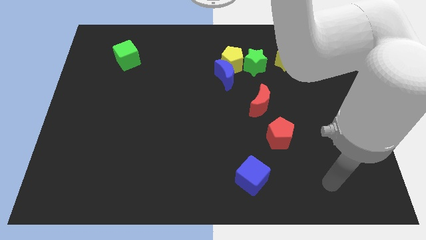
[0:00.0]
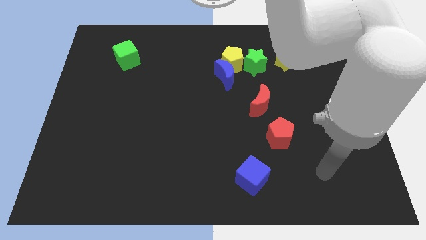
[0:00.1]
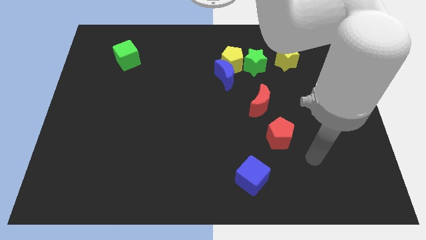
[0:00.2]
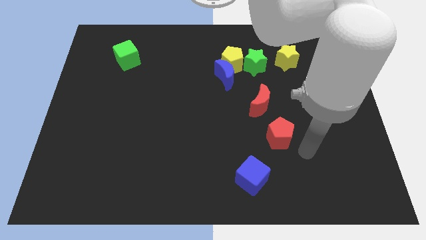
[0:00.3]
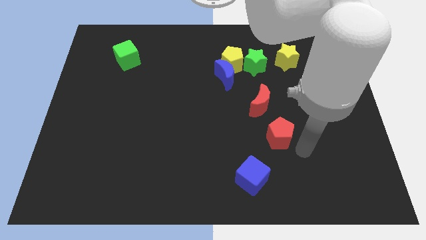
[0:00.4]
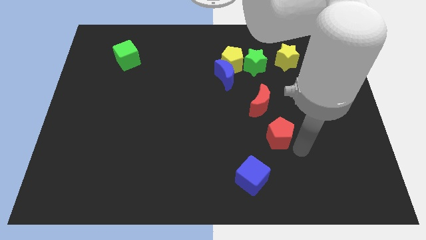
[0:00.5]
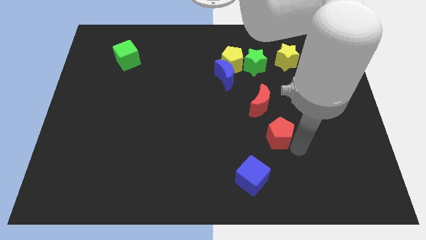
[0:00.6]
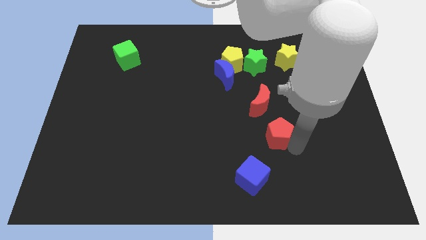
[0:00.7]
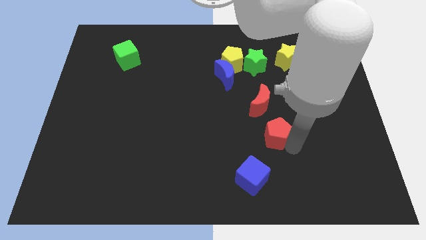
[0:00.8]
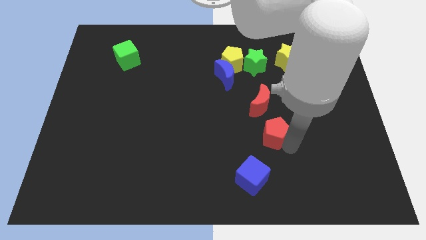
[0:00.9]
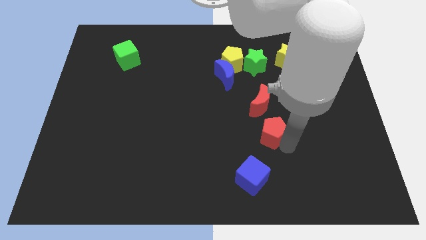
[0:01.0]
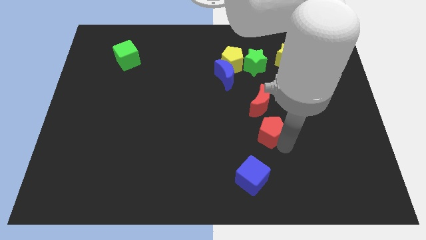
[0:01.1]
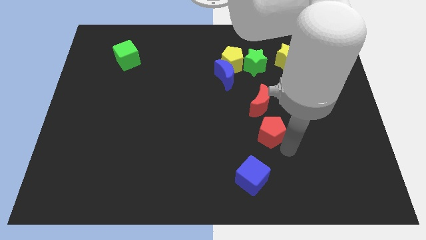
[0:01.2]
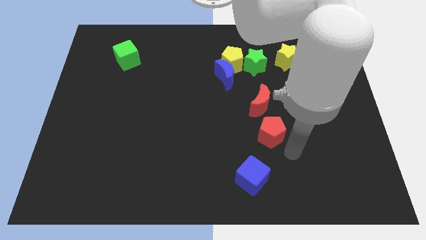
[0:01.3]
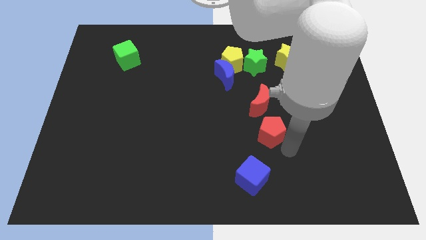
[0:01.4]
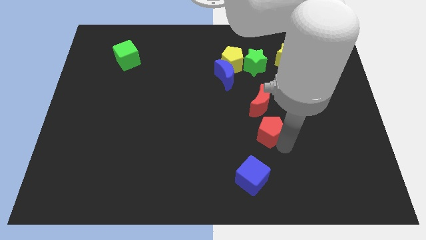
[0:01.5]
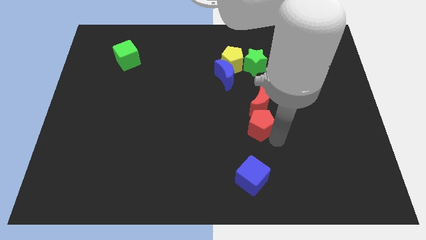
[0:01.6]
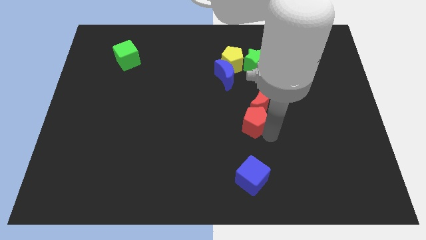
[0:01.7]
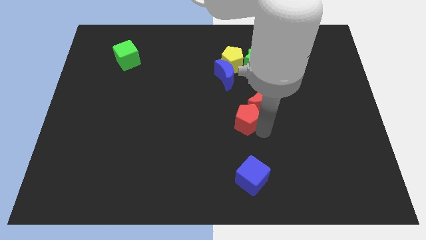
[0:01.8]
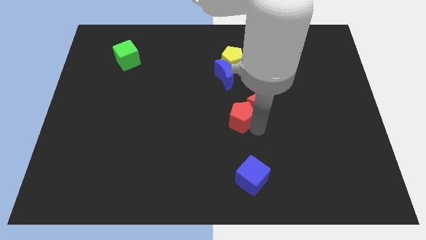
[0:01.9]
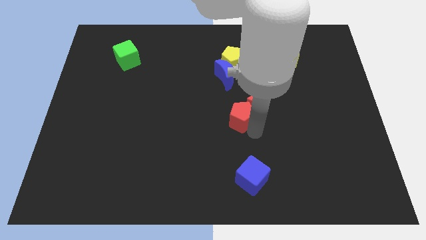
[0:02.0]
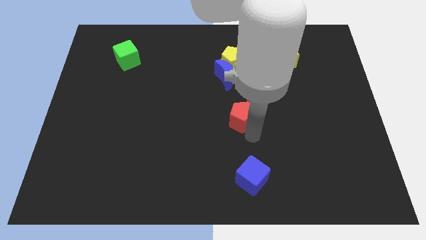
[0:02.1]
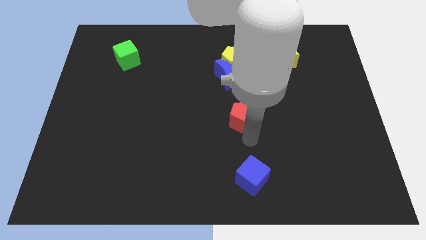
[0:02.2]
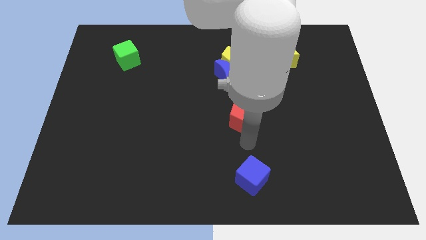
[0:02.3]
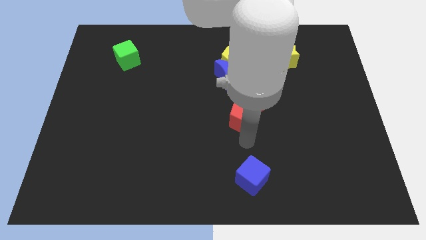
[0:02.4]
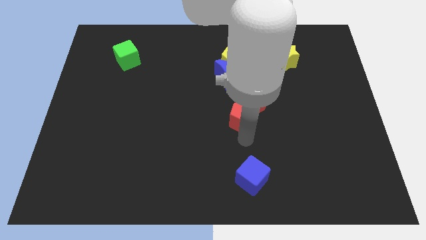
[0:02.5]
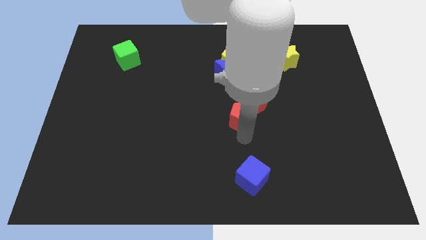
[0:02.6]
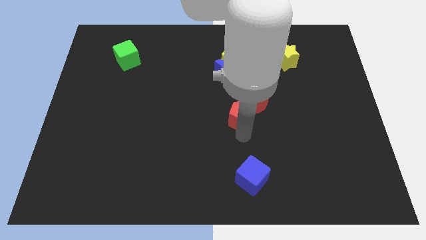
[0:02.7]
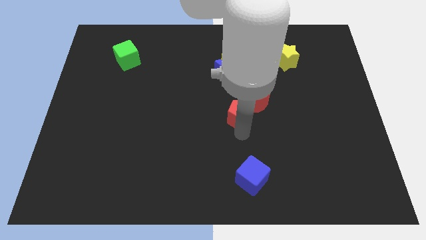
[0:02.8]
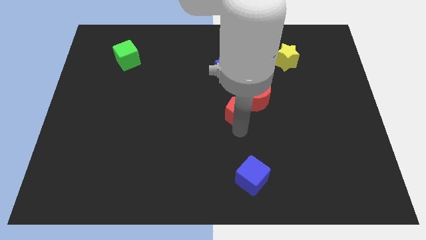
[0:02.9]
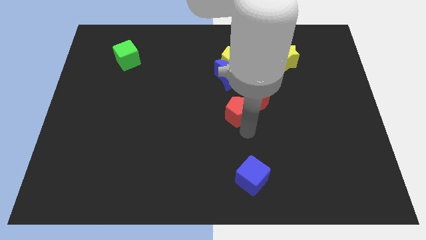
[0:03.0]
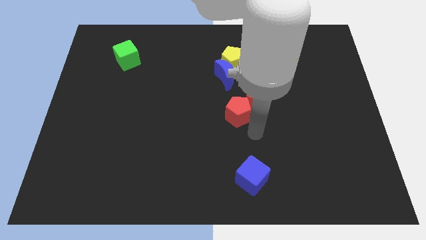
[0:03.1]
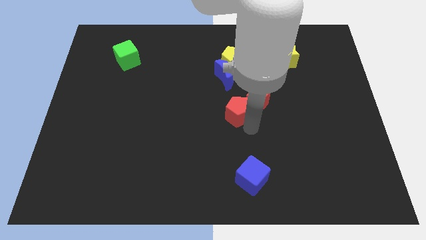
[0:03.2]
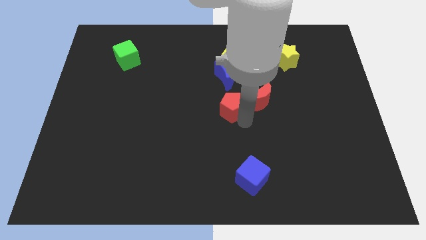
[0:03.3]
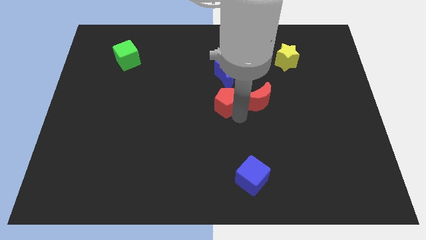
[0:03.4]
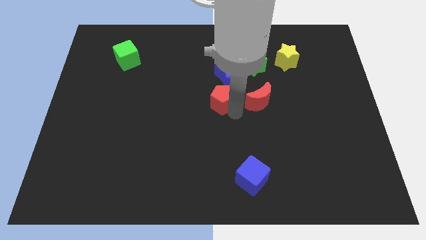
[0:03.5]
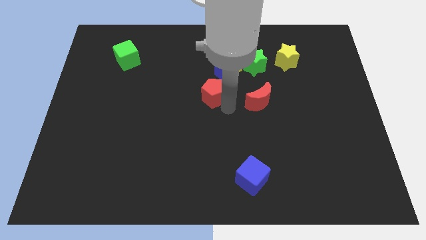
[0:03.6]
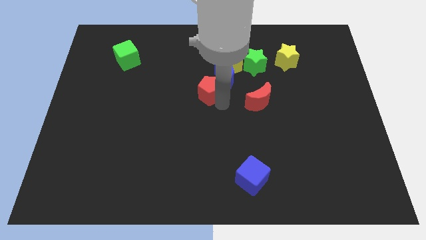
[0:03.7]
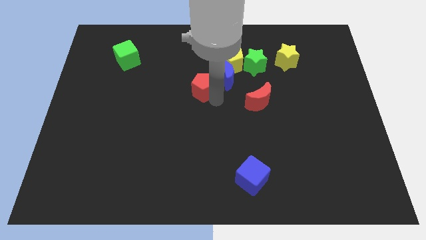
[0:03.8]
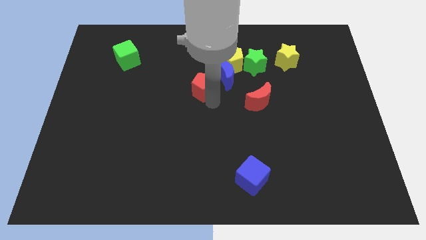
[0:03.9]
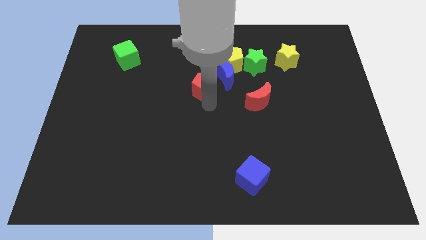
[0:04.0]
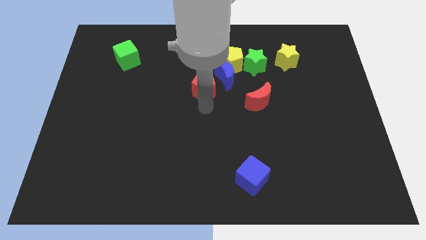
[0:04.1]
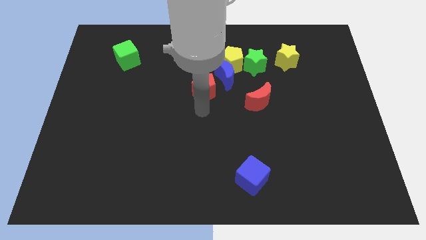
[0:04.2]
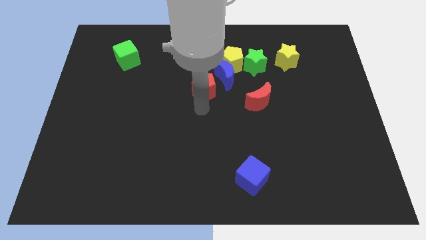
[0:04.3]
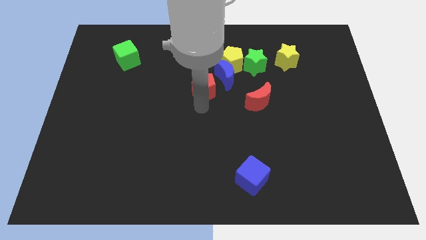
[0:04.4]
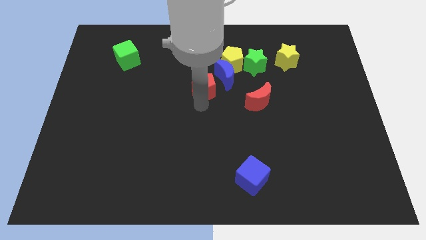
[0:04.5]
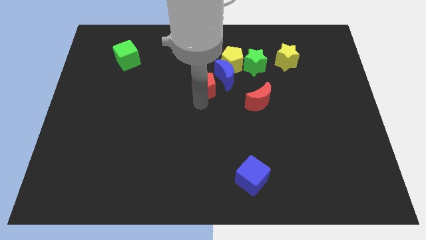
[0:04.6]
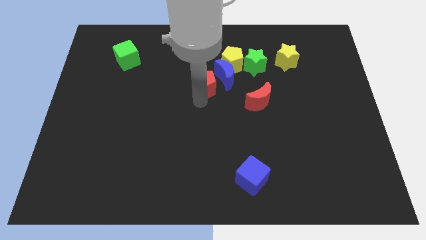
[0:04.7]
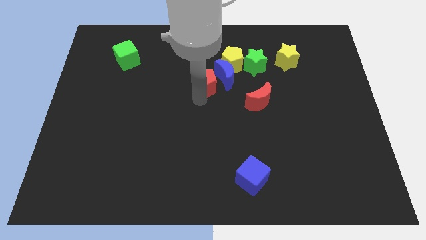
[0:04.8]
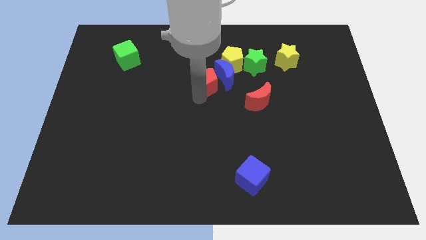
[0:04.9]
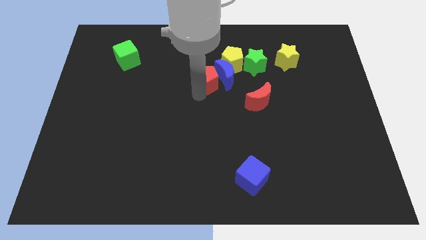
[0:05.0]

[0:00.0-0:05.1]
push the red pentagon diagonally up and to the left of the blue moon

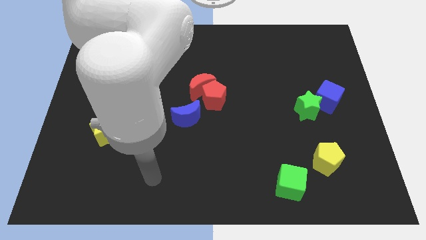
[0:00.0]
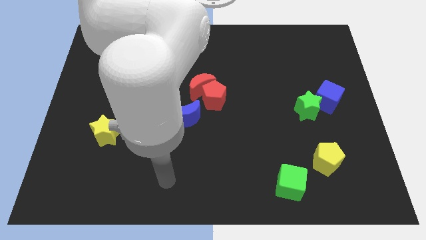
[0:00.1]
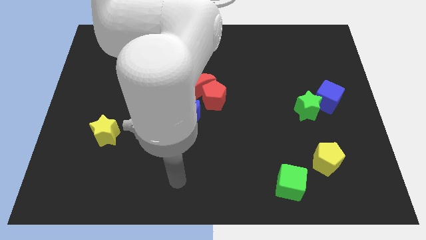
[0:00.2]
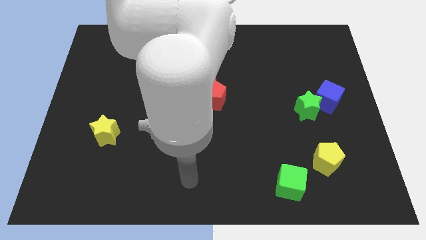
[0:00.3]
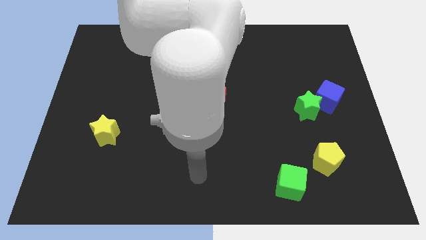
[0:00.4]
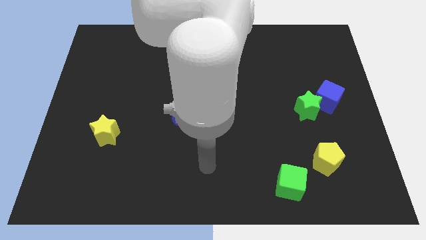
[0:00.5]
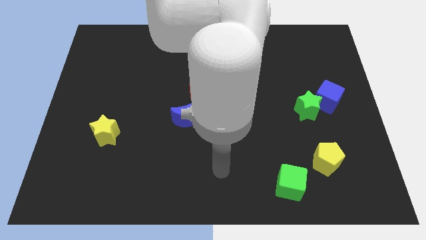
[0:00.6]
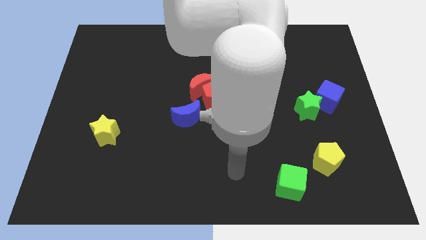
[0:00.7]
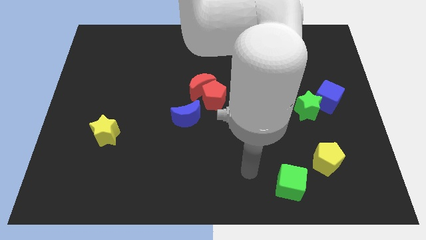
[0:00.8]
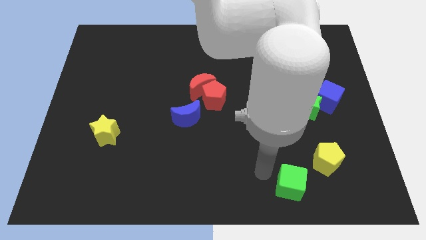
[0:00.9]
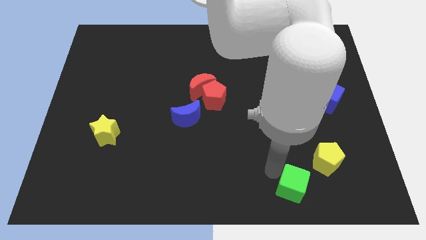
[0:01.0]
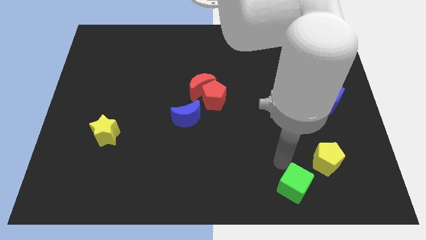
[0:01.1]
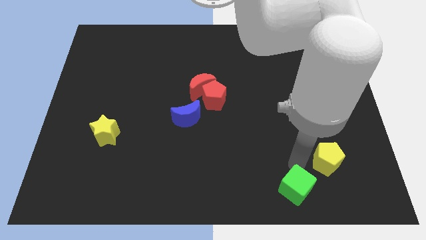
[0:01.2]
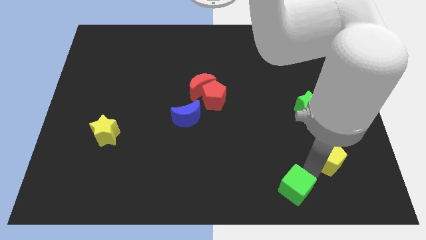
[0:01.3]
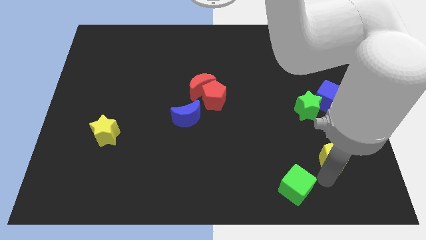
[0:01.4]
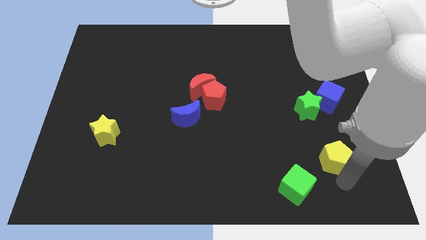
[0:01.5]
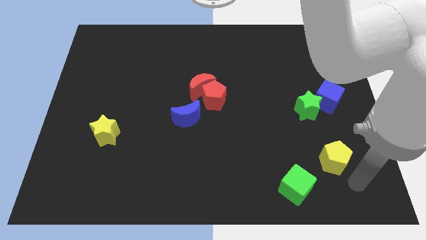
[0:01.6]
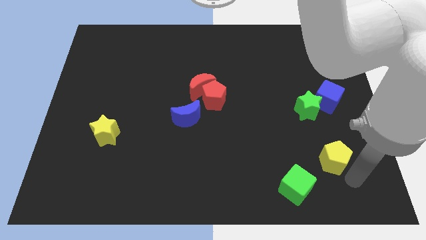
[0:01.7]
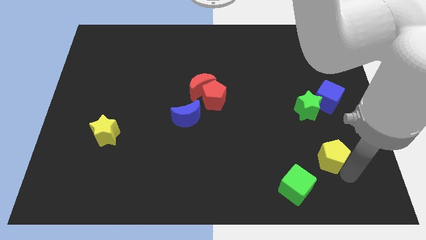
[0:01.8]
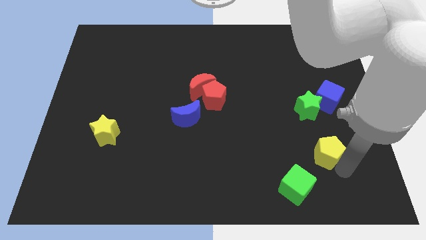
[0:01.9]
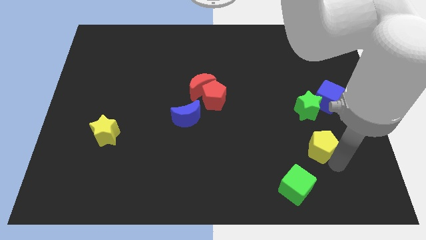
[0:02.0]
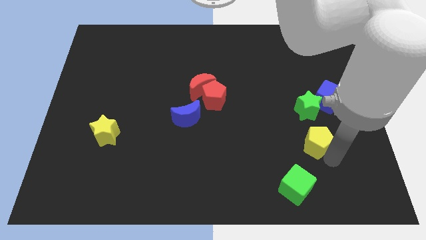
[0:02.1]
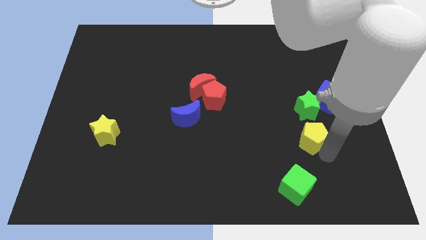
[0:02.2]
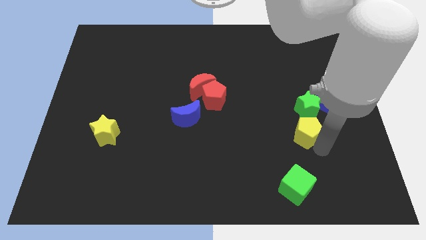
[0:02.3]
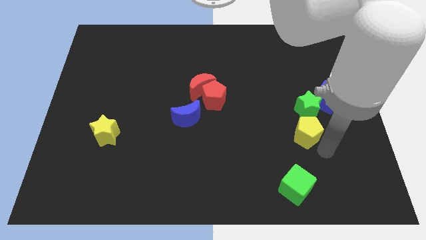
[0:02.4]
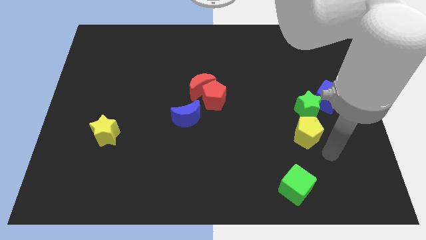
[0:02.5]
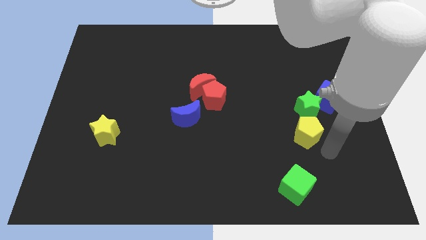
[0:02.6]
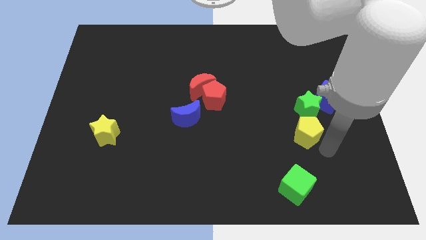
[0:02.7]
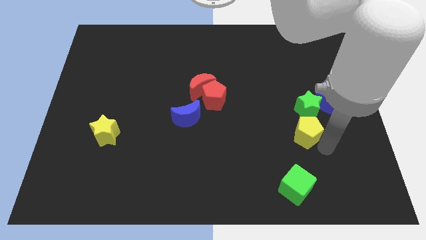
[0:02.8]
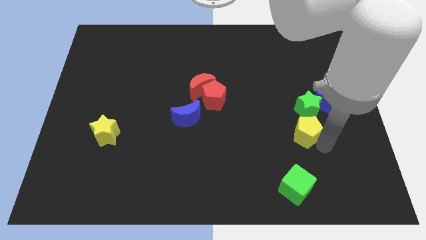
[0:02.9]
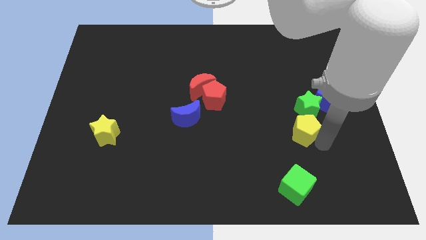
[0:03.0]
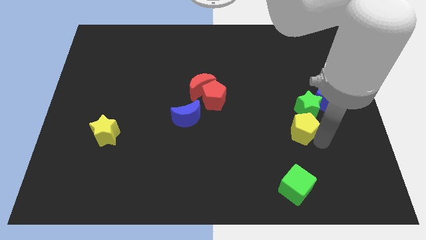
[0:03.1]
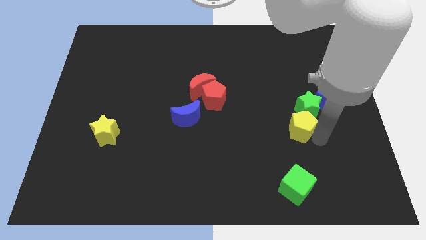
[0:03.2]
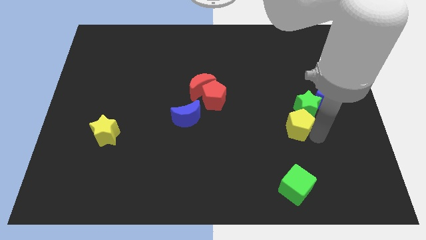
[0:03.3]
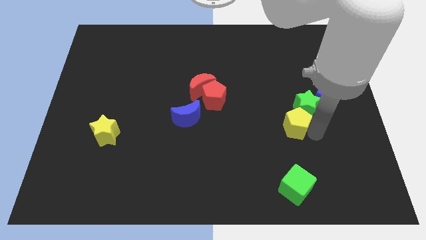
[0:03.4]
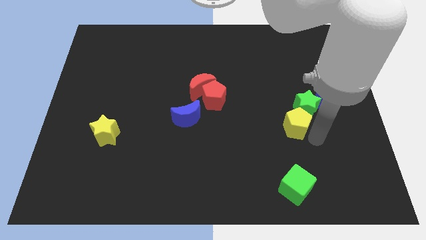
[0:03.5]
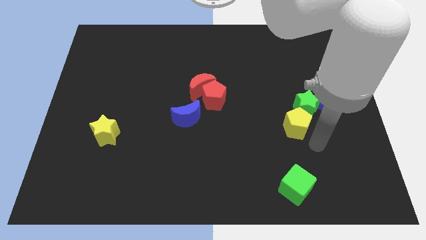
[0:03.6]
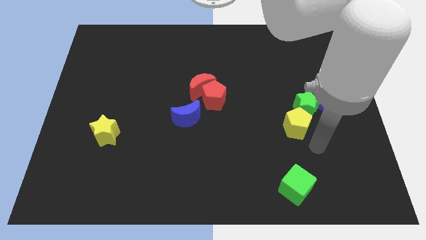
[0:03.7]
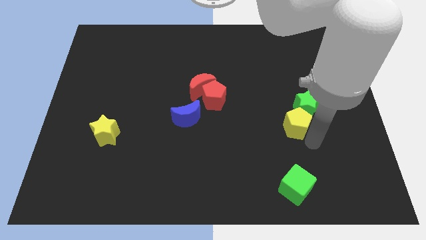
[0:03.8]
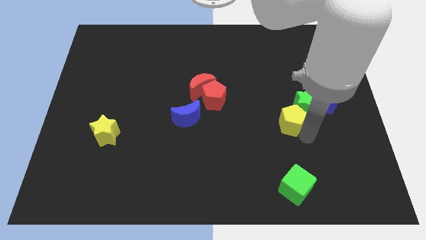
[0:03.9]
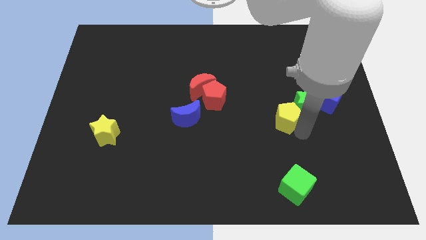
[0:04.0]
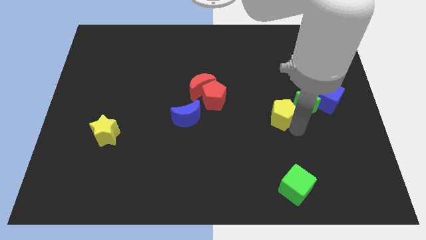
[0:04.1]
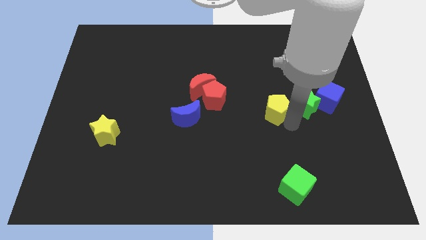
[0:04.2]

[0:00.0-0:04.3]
put the yellow pentagon right of the red pentagon
